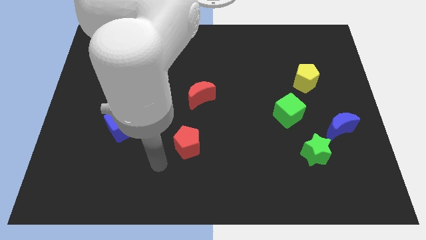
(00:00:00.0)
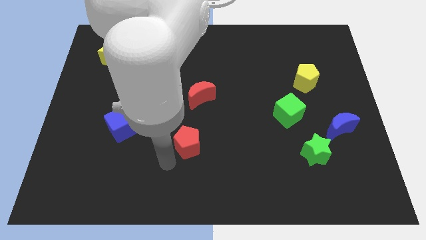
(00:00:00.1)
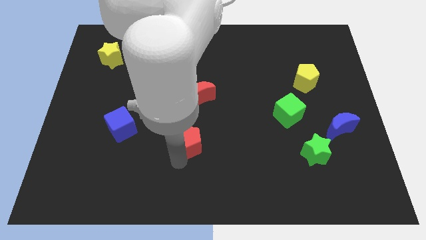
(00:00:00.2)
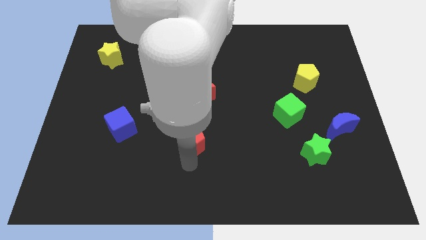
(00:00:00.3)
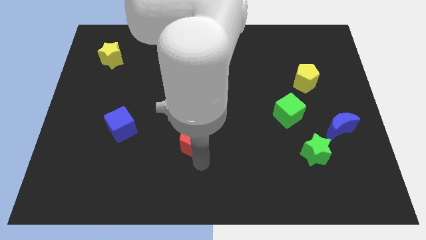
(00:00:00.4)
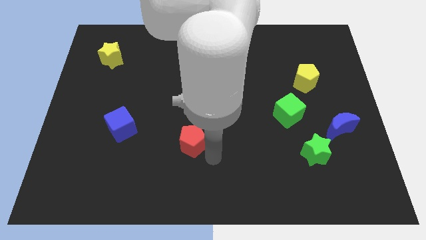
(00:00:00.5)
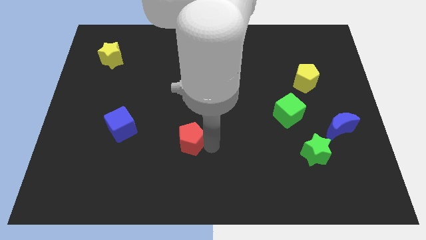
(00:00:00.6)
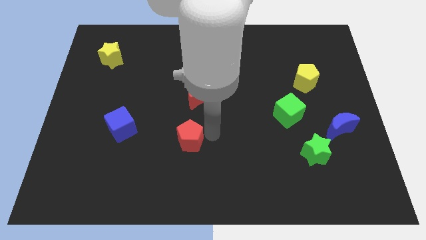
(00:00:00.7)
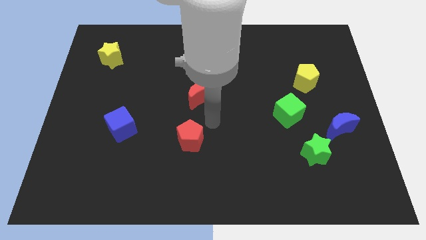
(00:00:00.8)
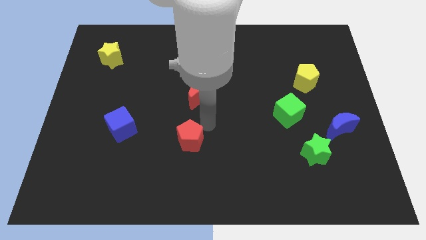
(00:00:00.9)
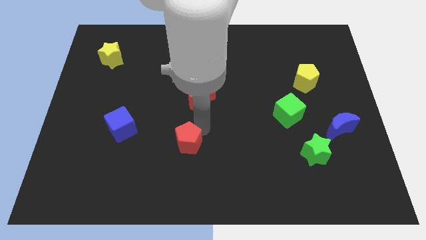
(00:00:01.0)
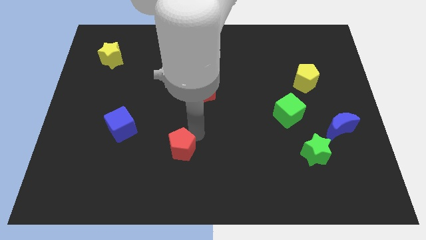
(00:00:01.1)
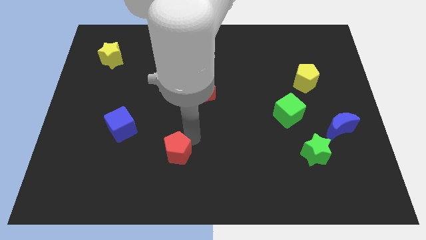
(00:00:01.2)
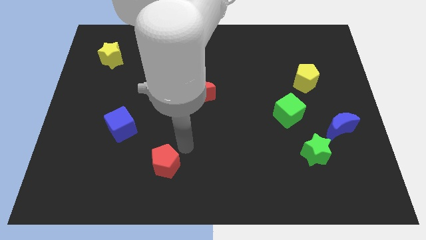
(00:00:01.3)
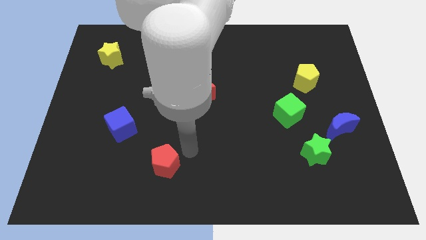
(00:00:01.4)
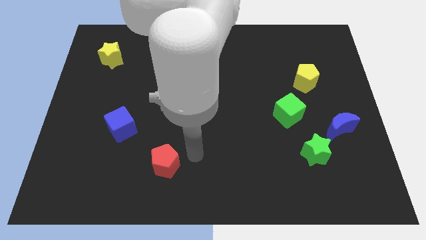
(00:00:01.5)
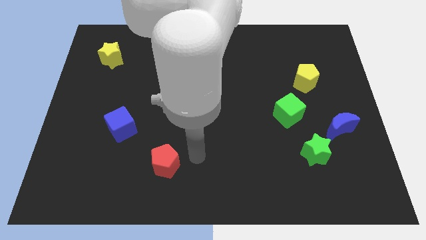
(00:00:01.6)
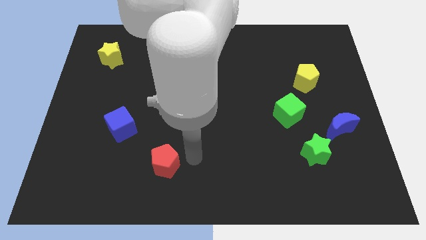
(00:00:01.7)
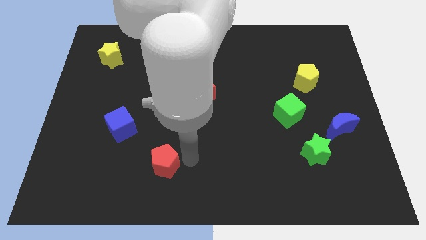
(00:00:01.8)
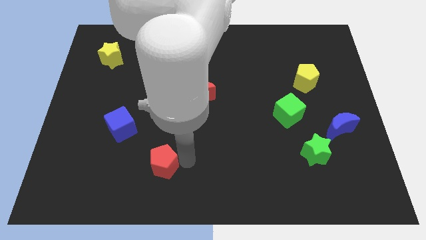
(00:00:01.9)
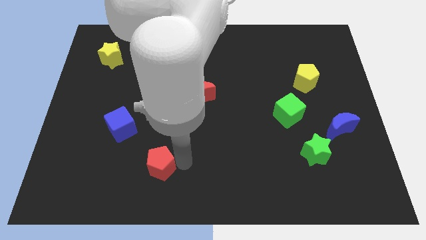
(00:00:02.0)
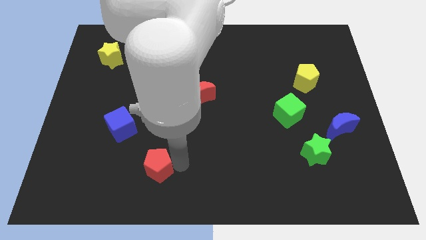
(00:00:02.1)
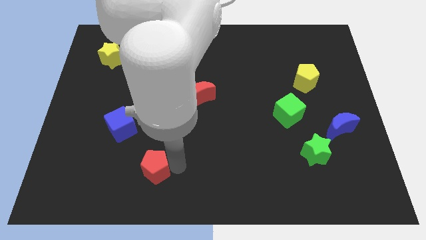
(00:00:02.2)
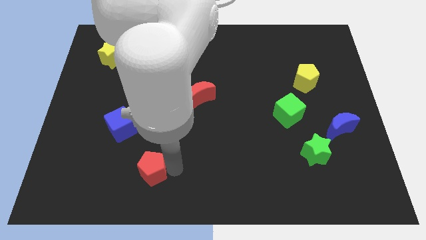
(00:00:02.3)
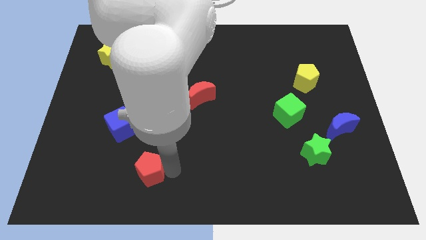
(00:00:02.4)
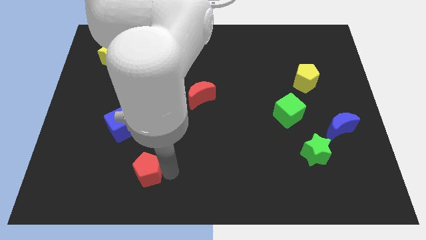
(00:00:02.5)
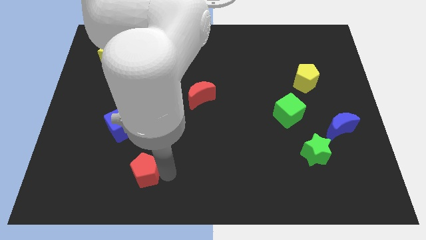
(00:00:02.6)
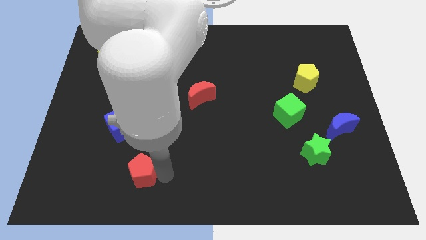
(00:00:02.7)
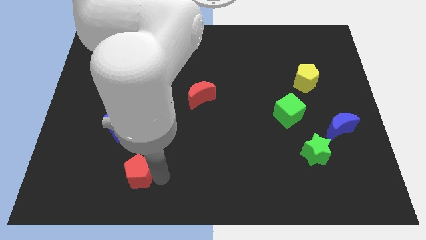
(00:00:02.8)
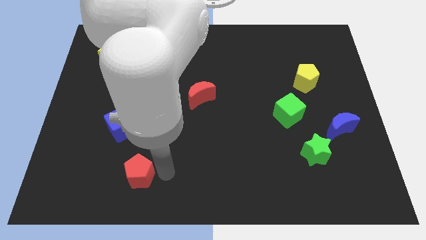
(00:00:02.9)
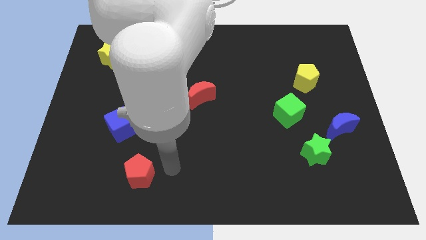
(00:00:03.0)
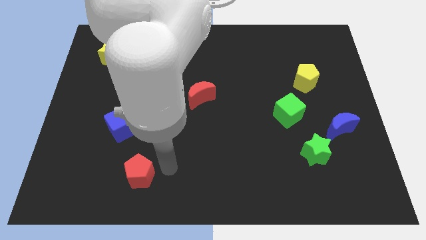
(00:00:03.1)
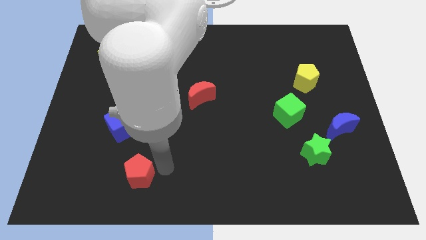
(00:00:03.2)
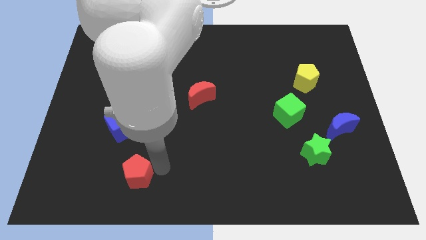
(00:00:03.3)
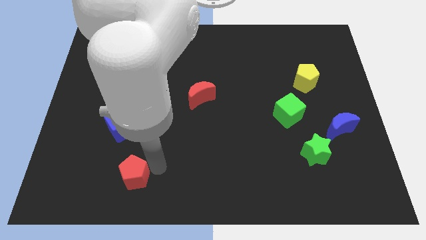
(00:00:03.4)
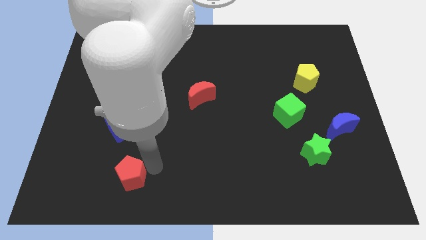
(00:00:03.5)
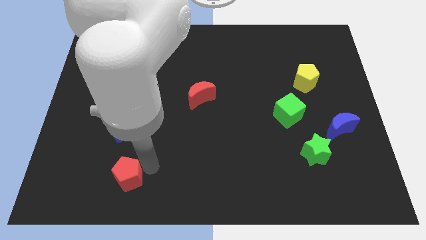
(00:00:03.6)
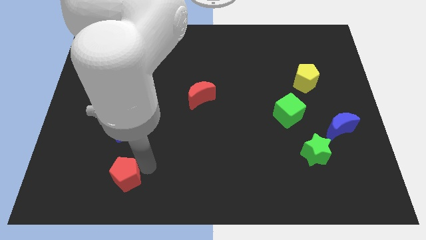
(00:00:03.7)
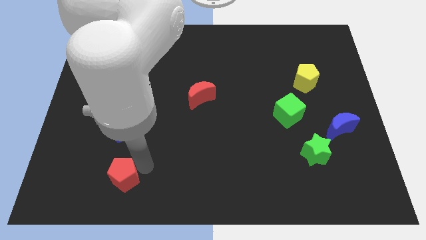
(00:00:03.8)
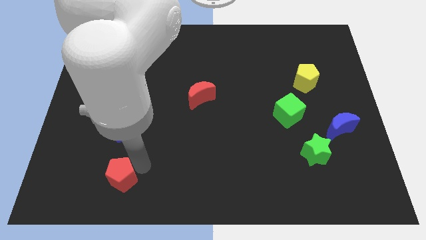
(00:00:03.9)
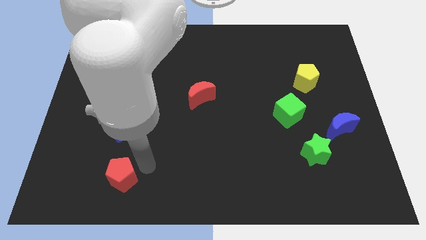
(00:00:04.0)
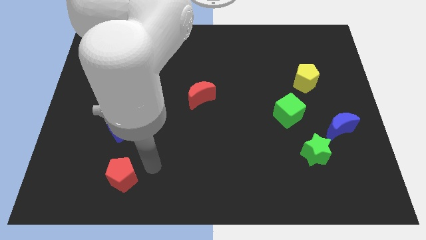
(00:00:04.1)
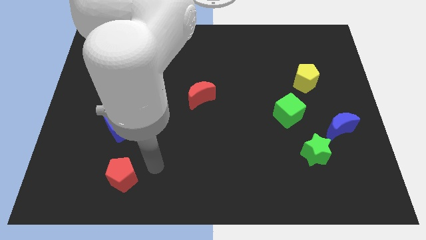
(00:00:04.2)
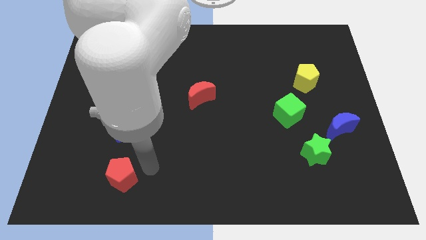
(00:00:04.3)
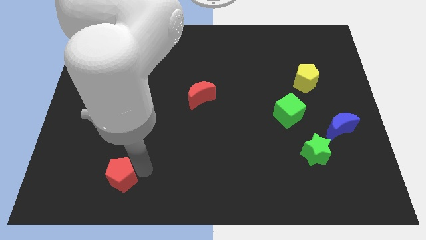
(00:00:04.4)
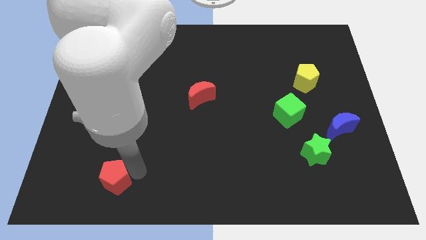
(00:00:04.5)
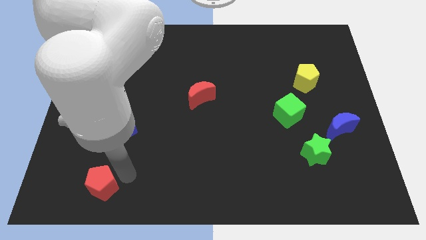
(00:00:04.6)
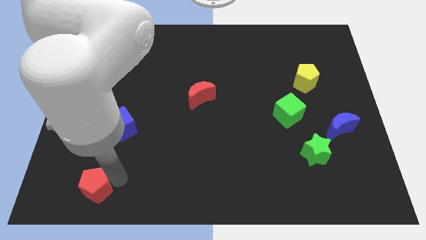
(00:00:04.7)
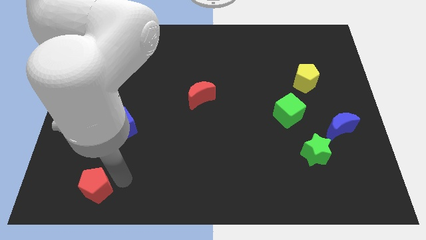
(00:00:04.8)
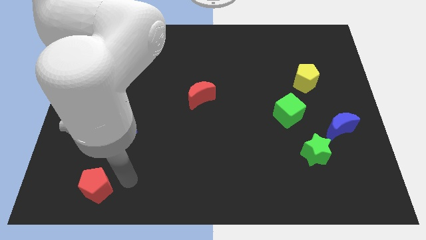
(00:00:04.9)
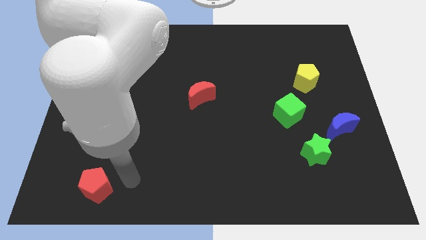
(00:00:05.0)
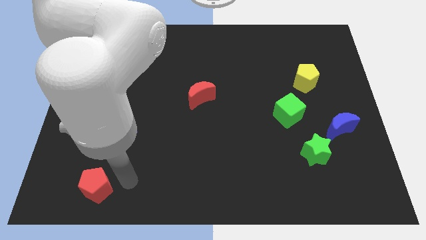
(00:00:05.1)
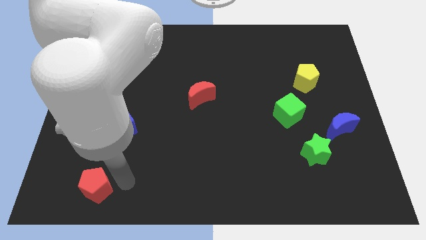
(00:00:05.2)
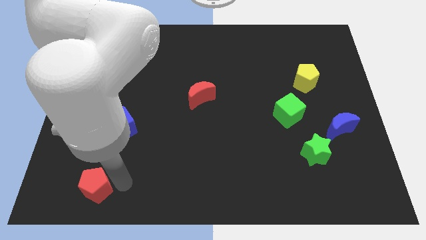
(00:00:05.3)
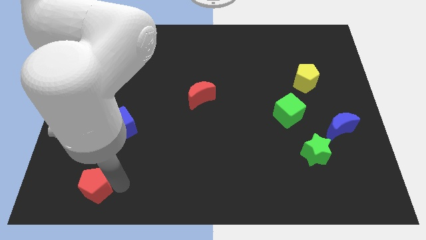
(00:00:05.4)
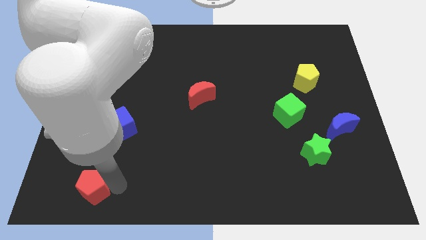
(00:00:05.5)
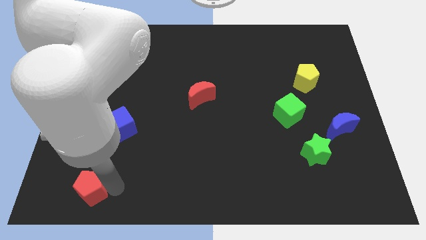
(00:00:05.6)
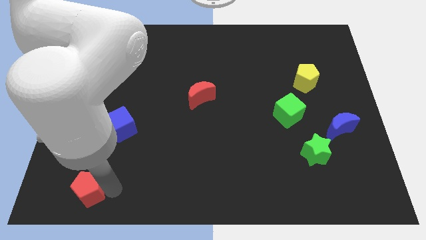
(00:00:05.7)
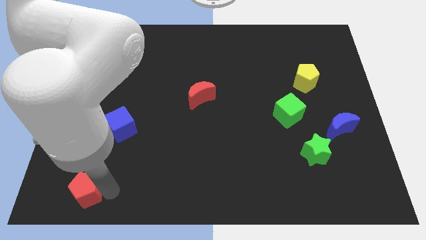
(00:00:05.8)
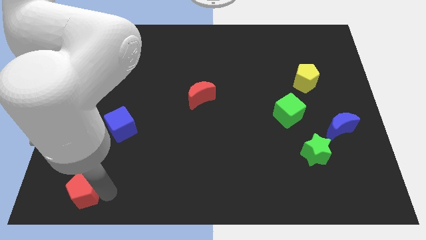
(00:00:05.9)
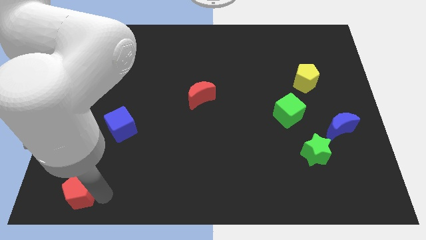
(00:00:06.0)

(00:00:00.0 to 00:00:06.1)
push the red pentagon to the bottom left of the board
